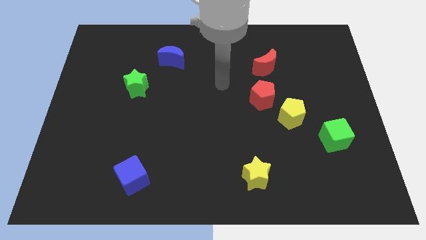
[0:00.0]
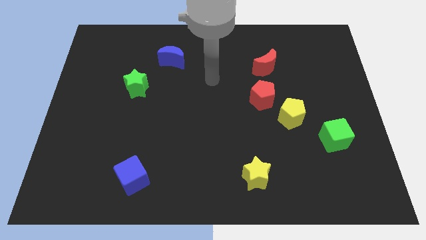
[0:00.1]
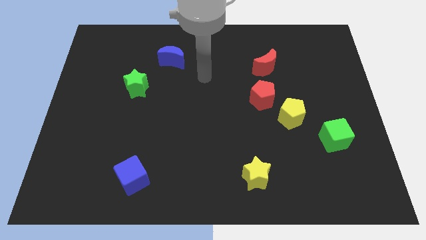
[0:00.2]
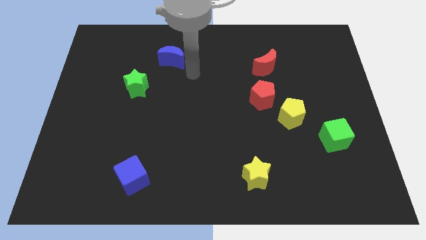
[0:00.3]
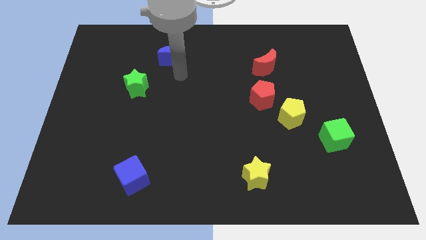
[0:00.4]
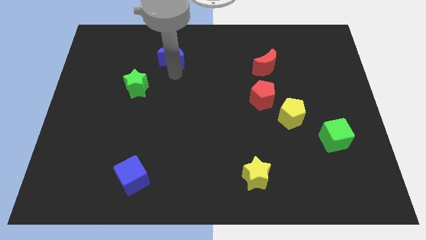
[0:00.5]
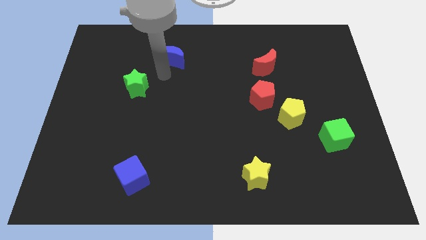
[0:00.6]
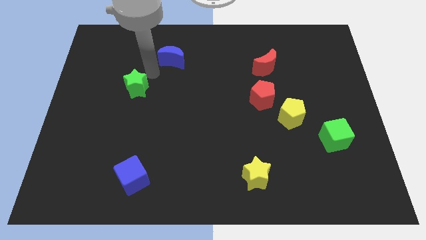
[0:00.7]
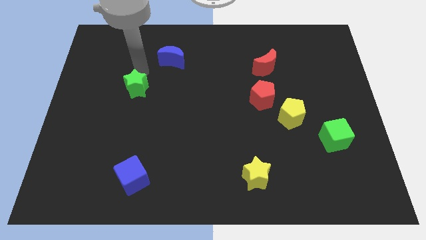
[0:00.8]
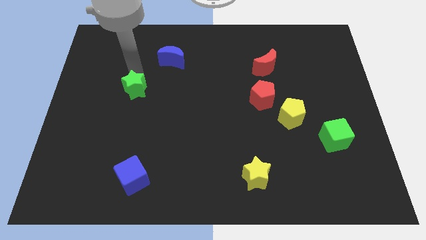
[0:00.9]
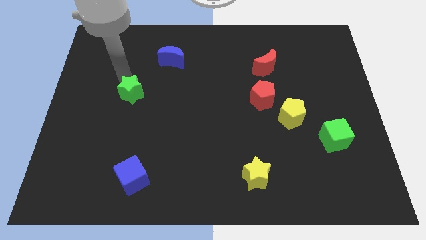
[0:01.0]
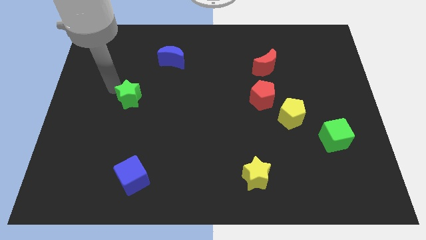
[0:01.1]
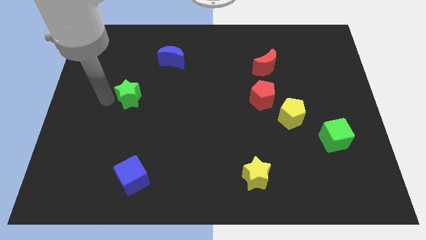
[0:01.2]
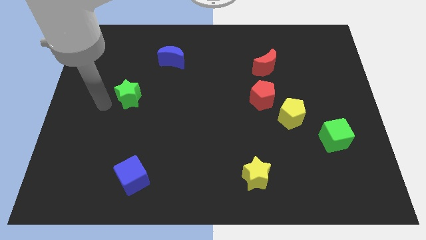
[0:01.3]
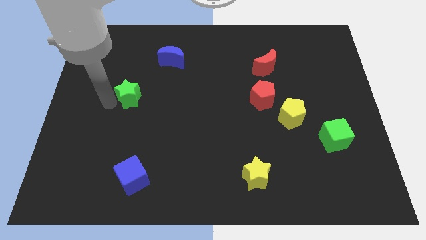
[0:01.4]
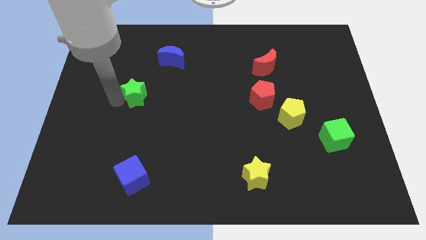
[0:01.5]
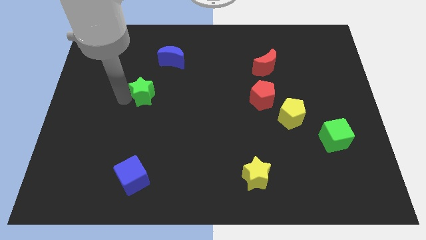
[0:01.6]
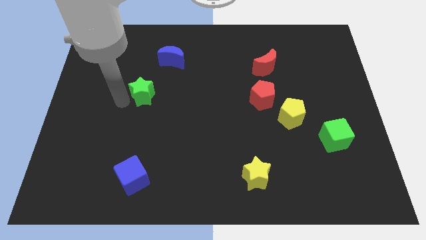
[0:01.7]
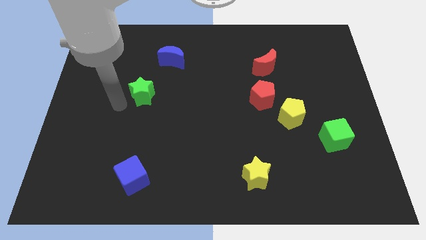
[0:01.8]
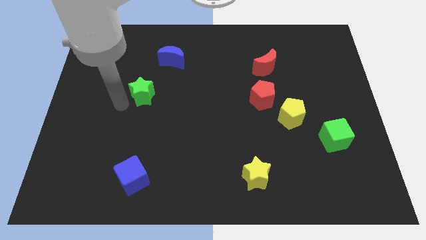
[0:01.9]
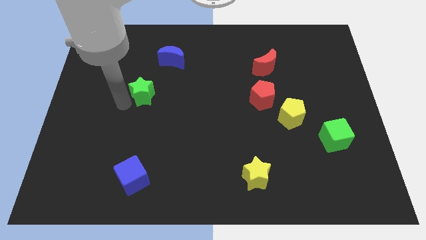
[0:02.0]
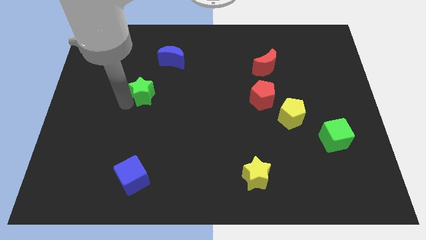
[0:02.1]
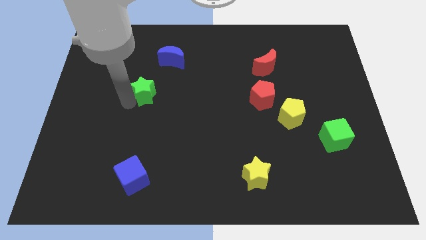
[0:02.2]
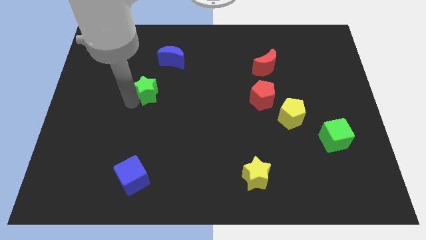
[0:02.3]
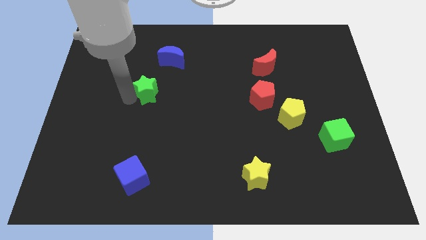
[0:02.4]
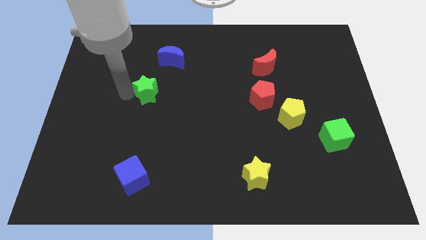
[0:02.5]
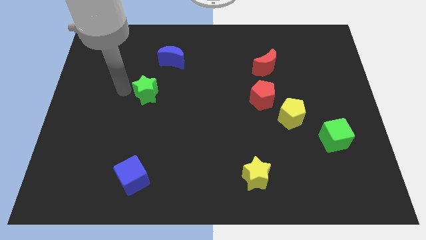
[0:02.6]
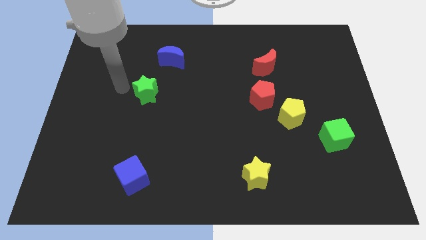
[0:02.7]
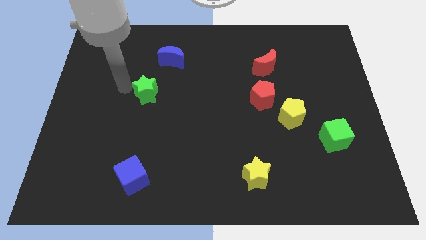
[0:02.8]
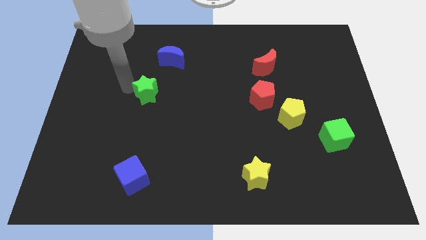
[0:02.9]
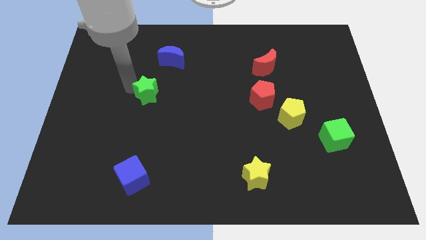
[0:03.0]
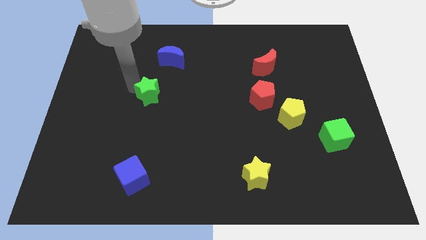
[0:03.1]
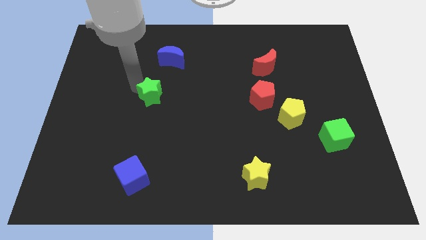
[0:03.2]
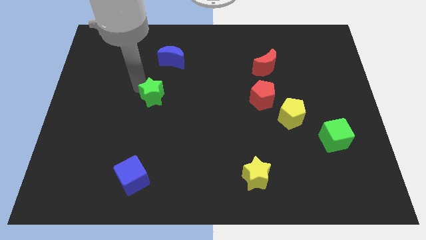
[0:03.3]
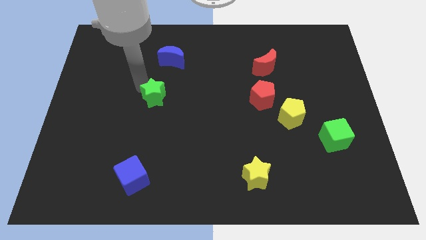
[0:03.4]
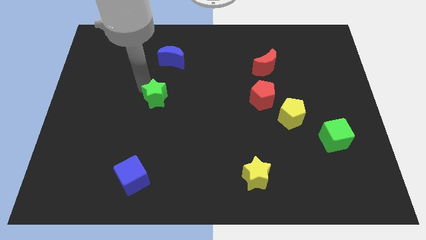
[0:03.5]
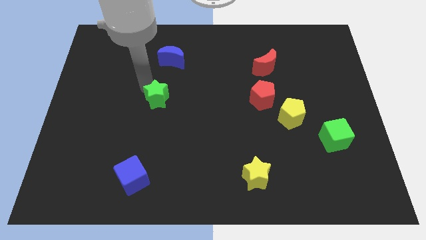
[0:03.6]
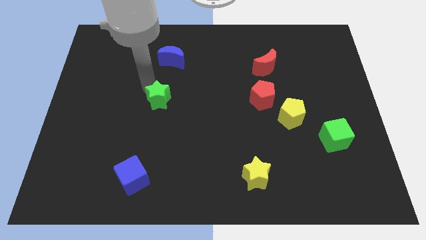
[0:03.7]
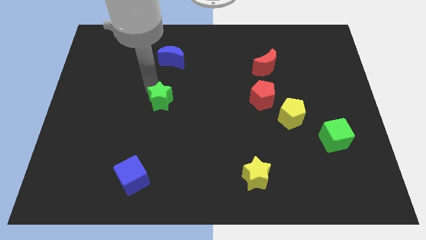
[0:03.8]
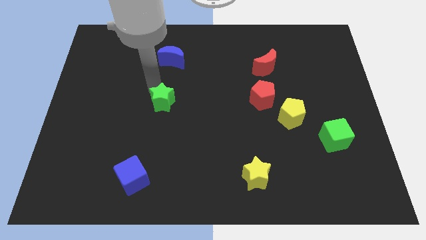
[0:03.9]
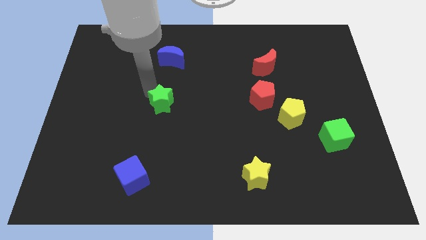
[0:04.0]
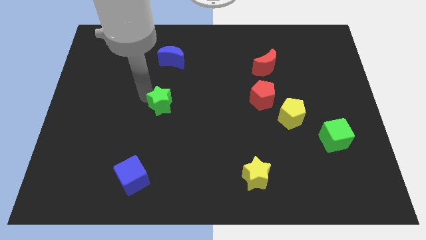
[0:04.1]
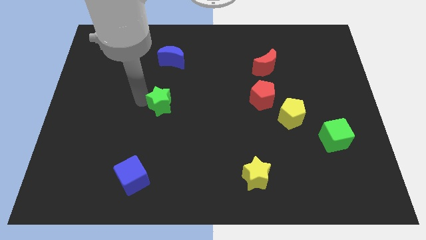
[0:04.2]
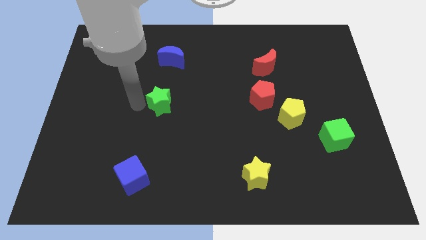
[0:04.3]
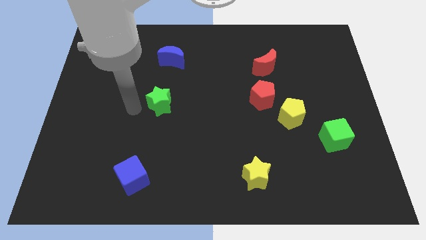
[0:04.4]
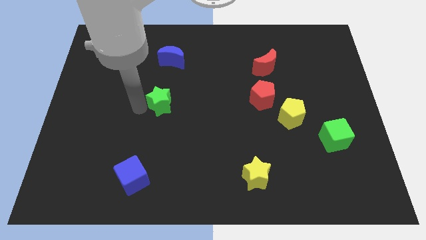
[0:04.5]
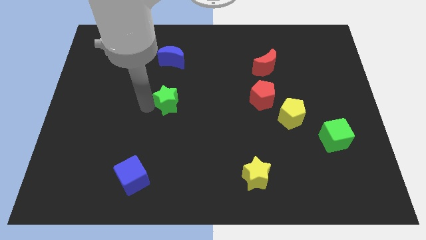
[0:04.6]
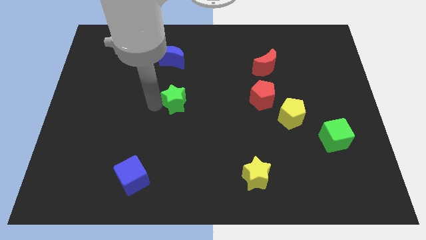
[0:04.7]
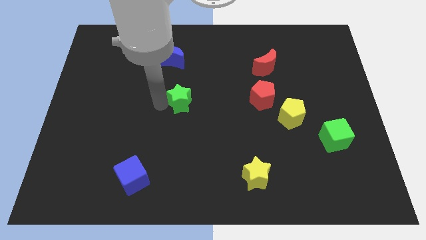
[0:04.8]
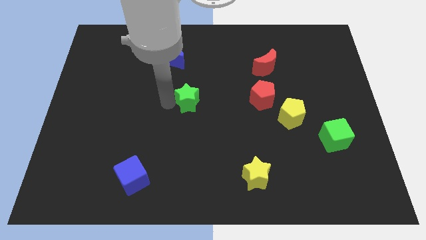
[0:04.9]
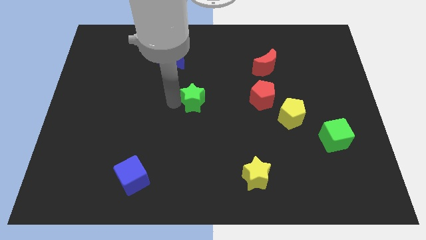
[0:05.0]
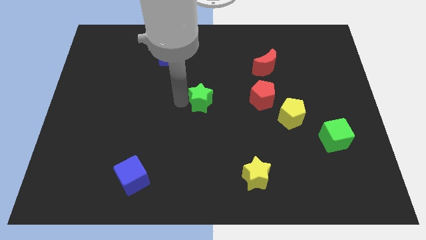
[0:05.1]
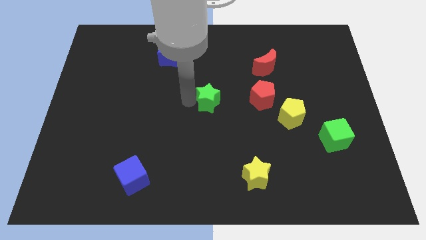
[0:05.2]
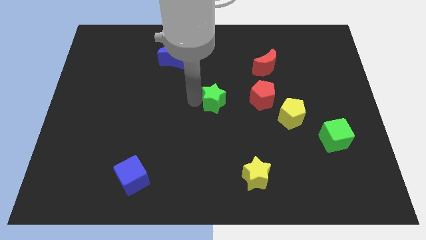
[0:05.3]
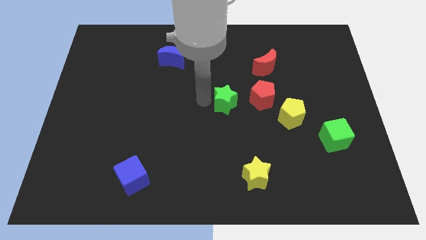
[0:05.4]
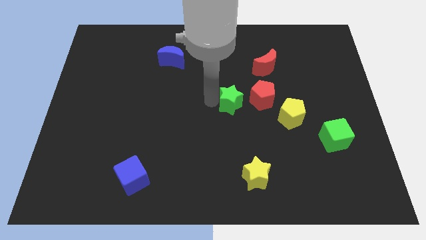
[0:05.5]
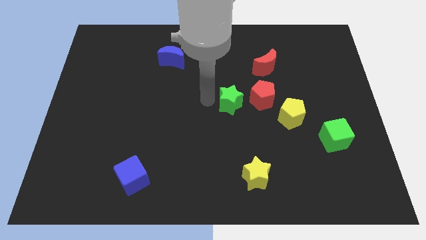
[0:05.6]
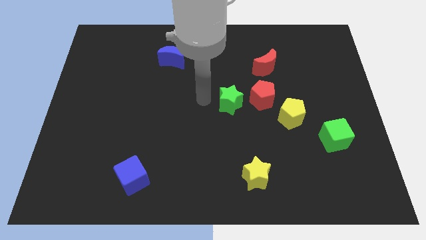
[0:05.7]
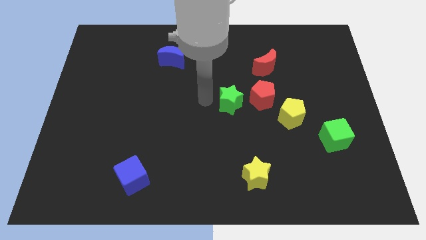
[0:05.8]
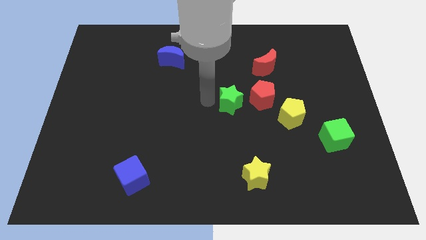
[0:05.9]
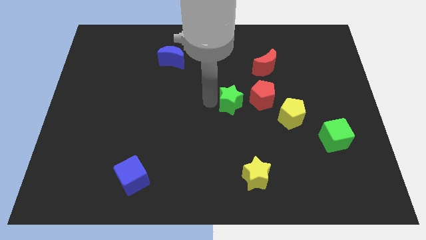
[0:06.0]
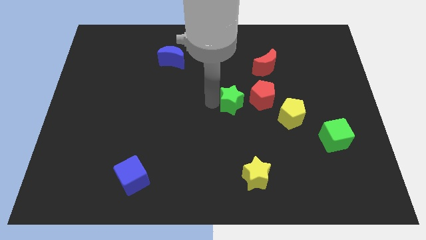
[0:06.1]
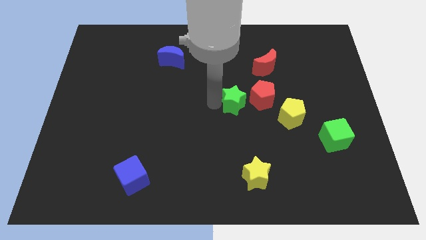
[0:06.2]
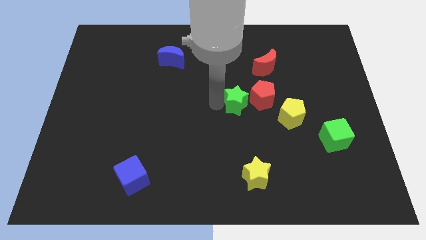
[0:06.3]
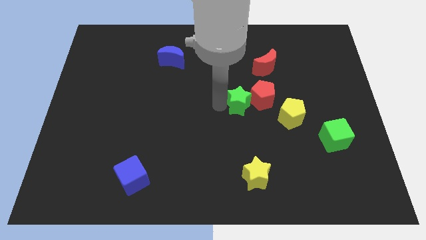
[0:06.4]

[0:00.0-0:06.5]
push the green star towards the red pentagon

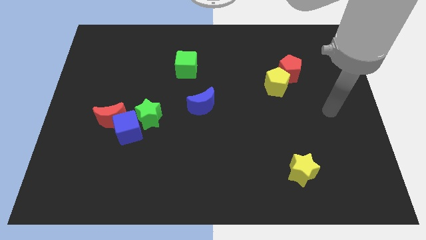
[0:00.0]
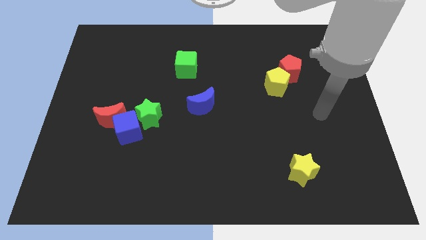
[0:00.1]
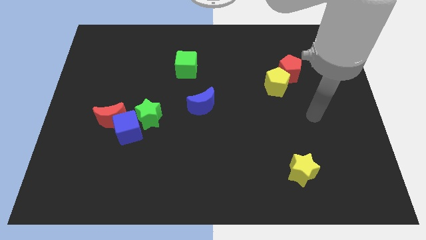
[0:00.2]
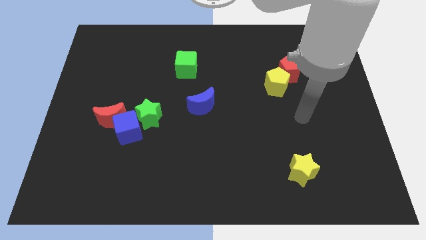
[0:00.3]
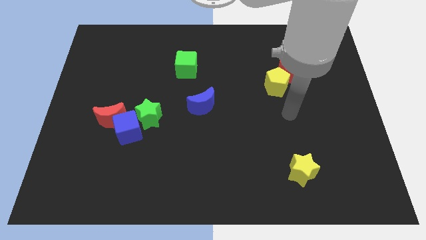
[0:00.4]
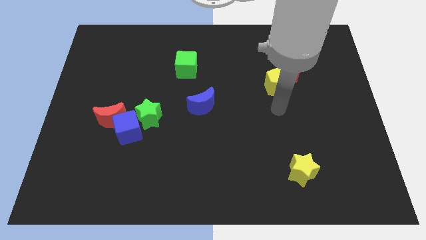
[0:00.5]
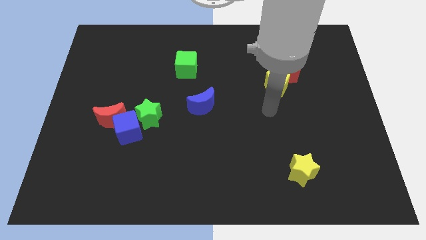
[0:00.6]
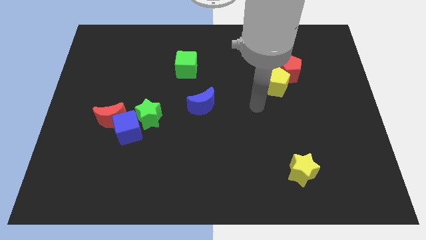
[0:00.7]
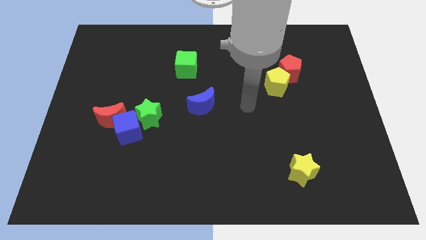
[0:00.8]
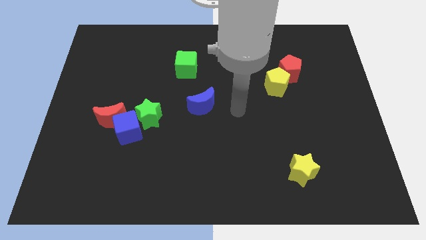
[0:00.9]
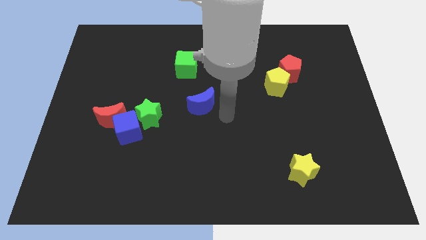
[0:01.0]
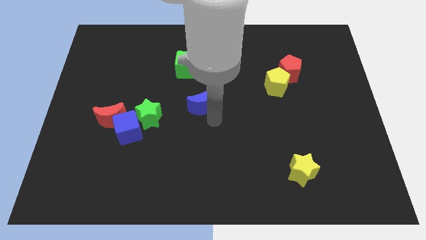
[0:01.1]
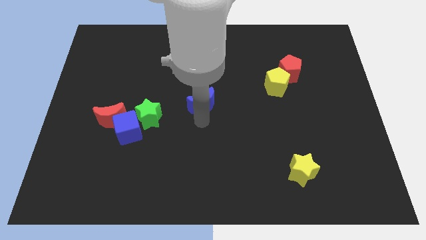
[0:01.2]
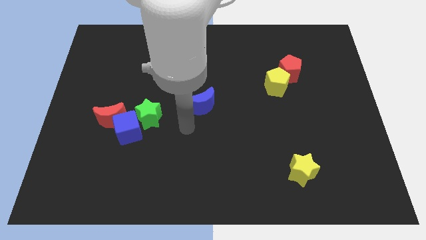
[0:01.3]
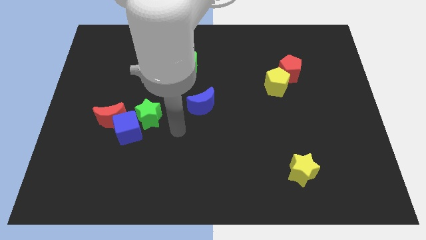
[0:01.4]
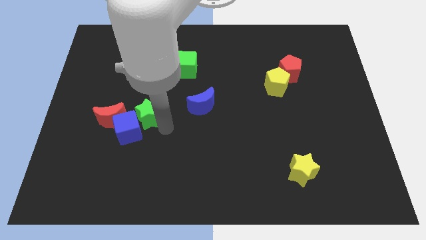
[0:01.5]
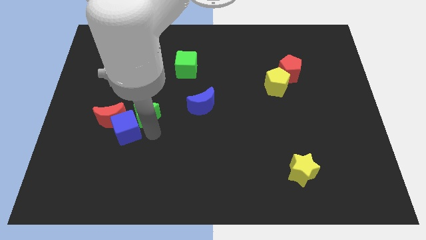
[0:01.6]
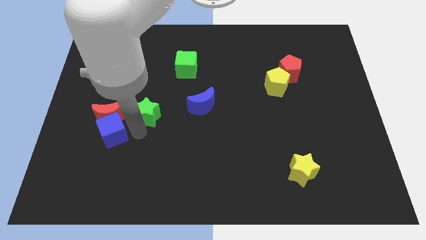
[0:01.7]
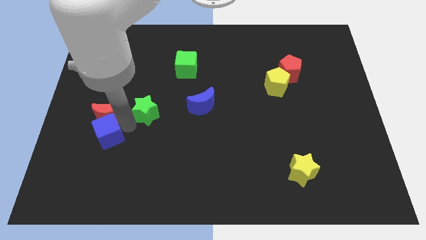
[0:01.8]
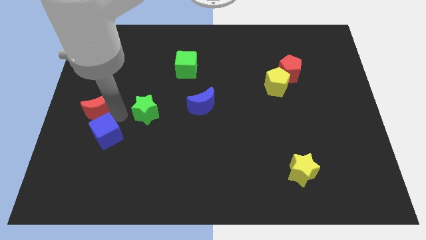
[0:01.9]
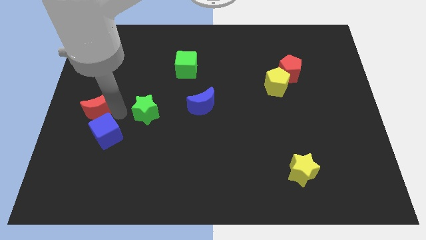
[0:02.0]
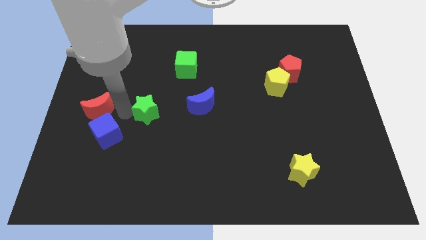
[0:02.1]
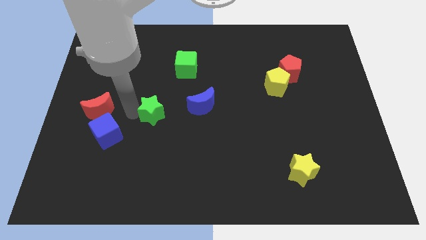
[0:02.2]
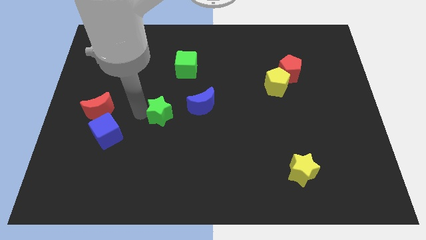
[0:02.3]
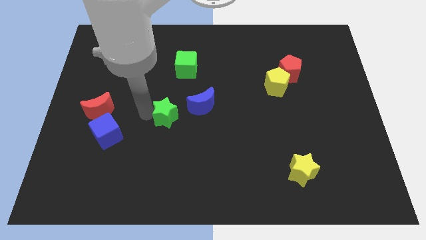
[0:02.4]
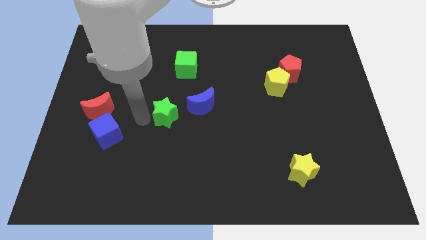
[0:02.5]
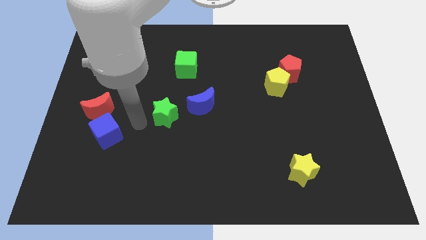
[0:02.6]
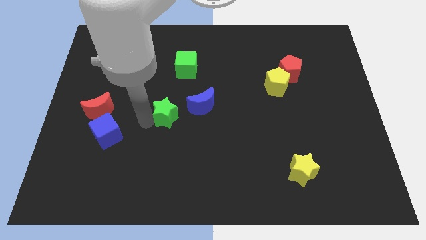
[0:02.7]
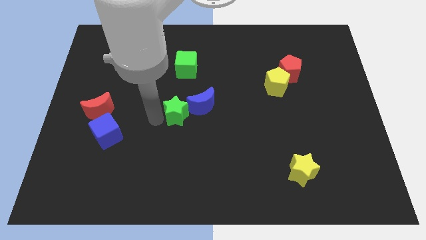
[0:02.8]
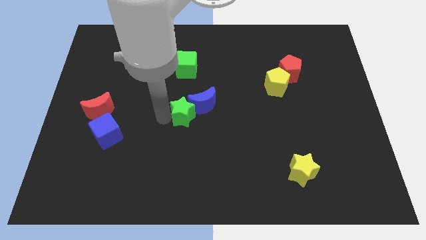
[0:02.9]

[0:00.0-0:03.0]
move the green star close to the blue moon
